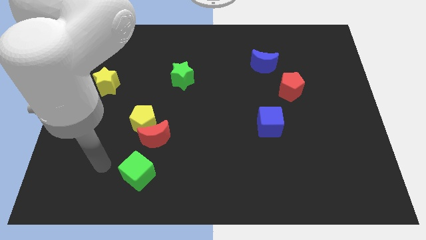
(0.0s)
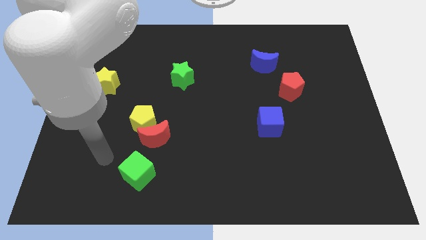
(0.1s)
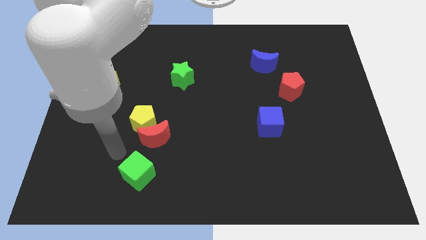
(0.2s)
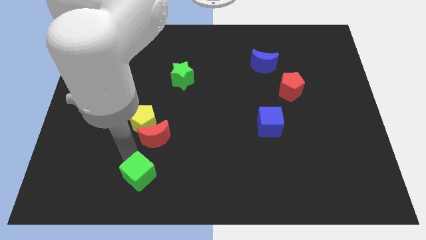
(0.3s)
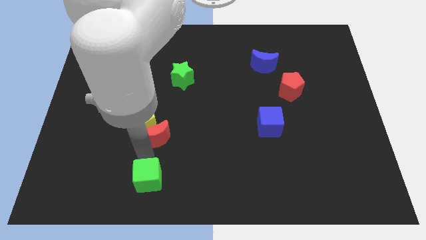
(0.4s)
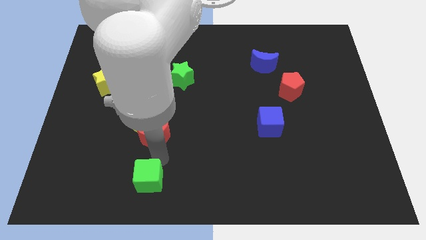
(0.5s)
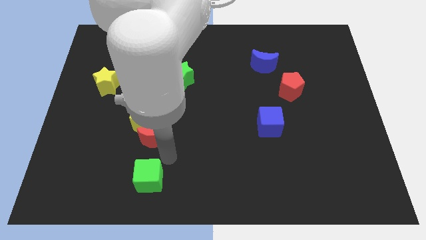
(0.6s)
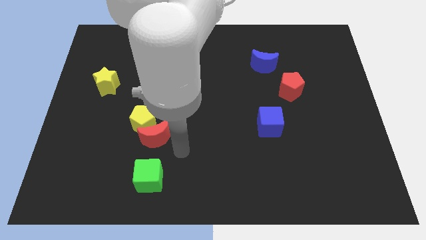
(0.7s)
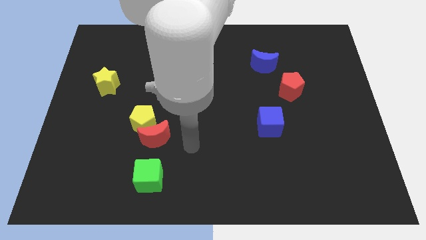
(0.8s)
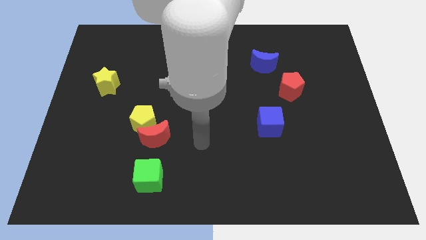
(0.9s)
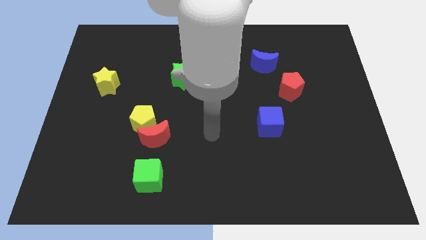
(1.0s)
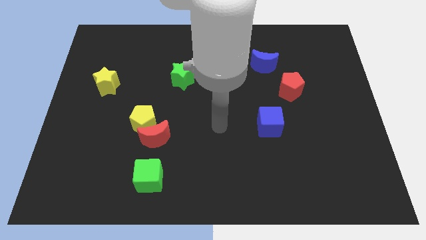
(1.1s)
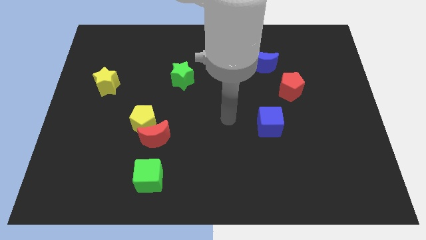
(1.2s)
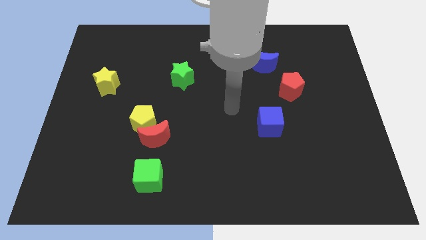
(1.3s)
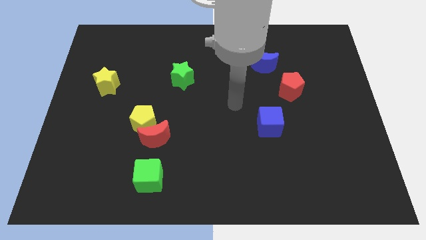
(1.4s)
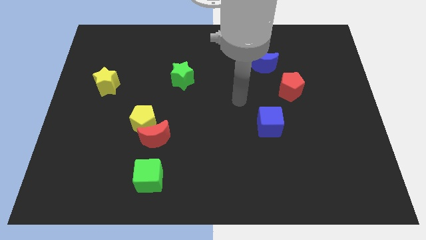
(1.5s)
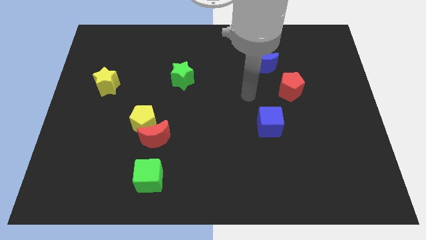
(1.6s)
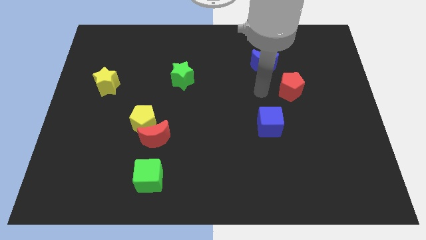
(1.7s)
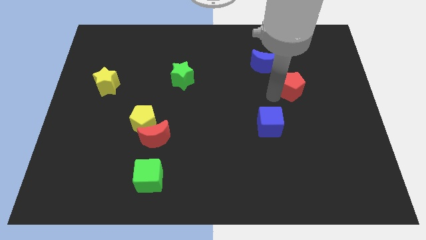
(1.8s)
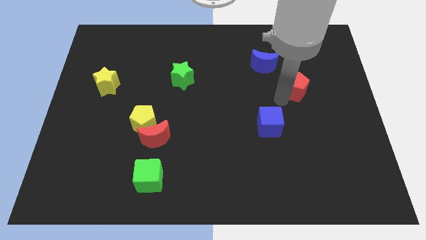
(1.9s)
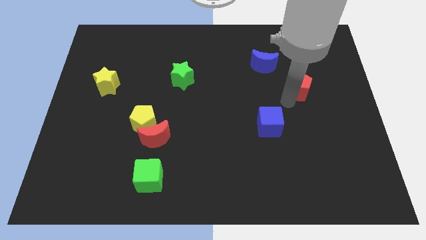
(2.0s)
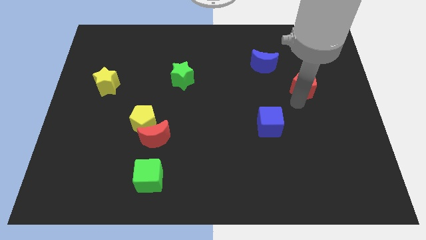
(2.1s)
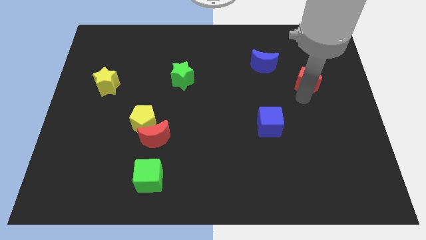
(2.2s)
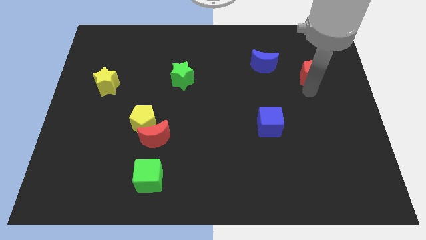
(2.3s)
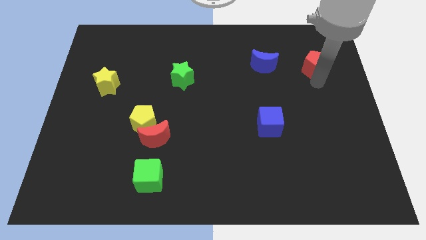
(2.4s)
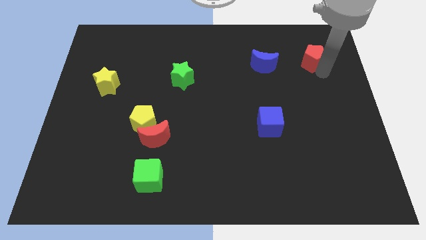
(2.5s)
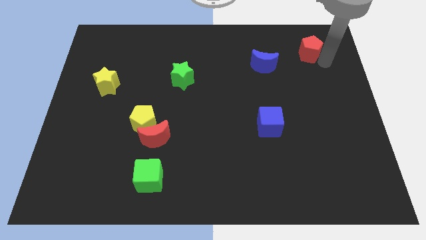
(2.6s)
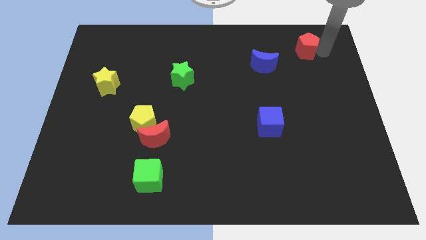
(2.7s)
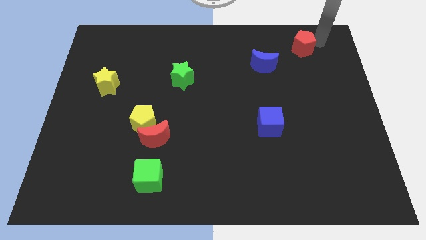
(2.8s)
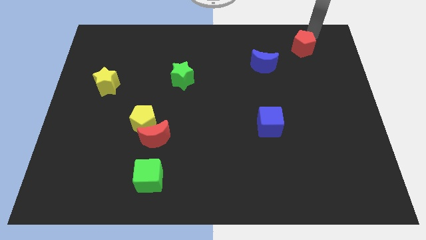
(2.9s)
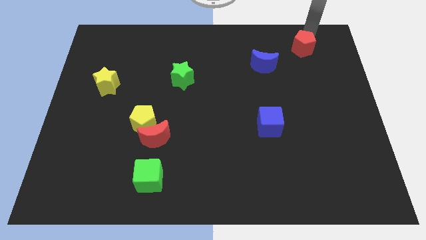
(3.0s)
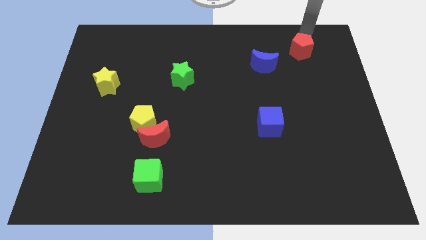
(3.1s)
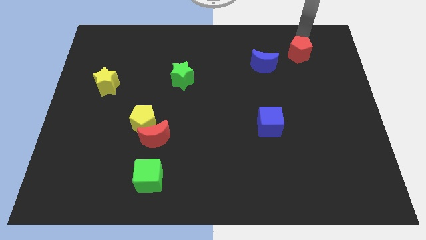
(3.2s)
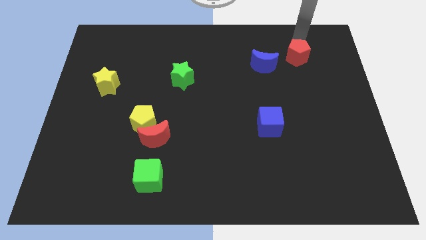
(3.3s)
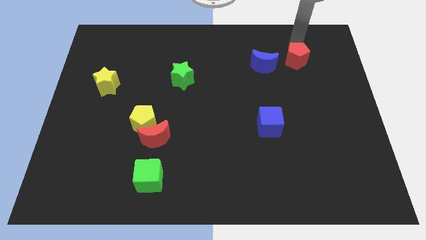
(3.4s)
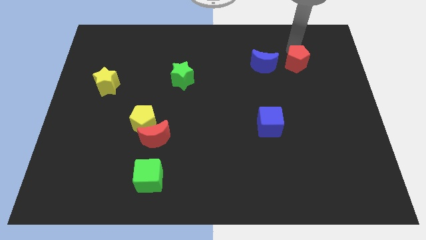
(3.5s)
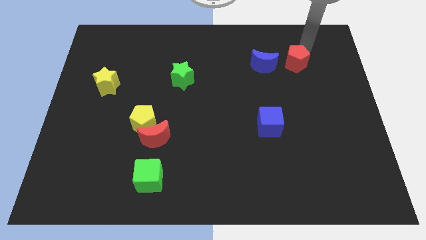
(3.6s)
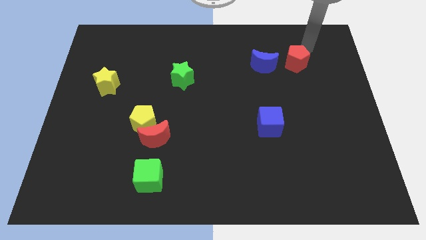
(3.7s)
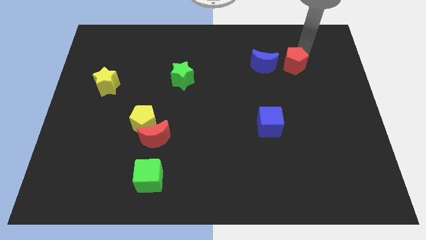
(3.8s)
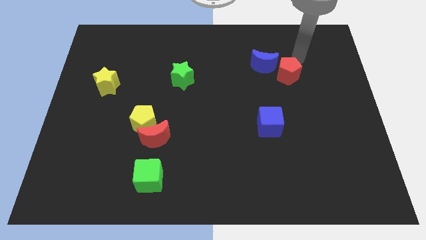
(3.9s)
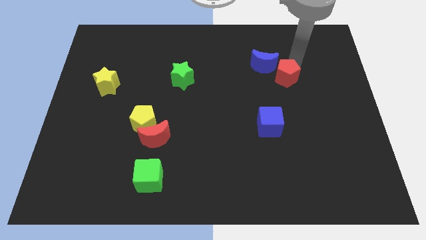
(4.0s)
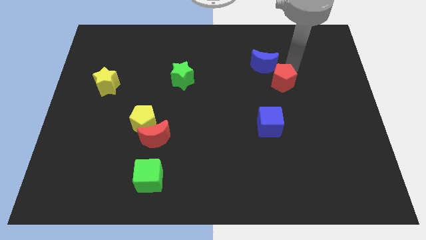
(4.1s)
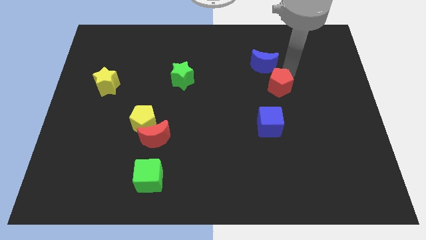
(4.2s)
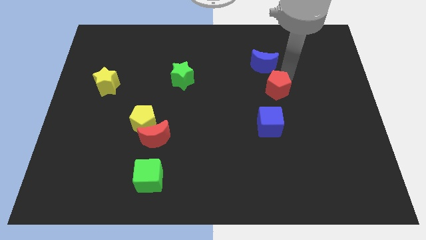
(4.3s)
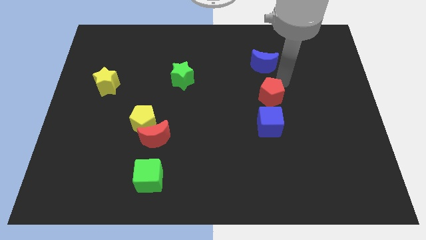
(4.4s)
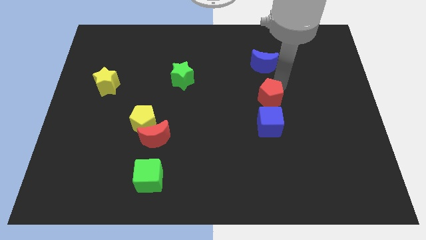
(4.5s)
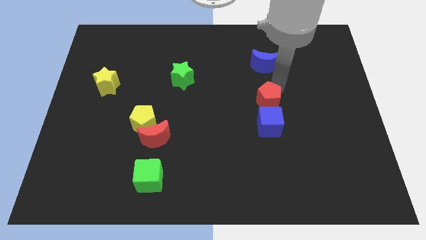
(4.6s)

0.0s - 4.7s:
move the red pentagon down and then left a bit

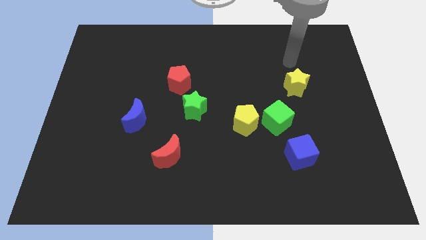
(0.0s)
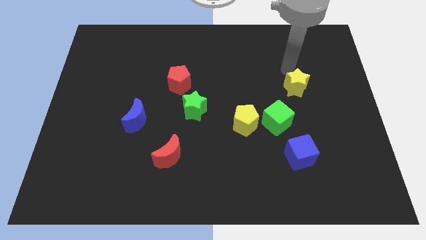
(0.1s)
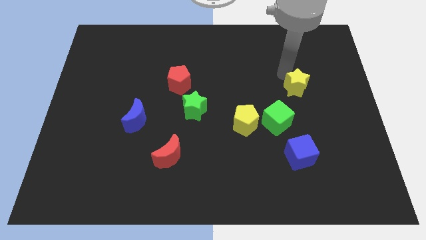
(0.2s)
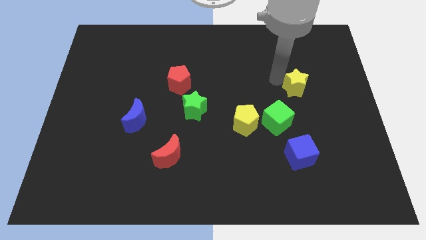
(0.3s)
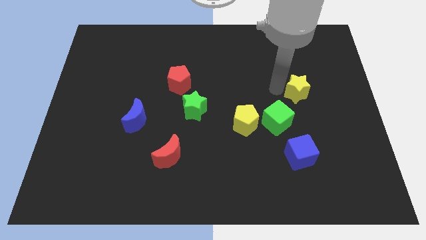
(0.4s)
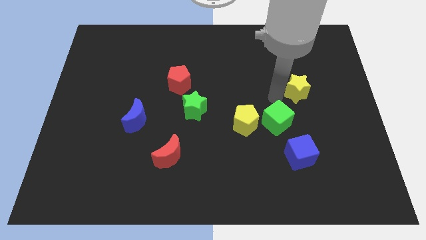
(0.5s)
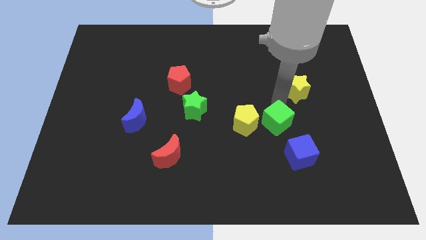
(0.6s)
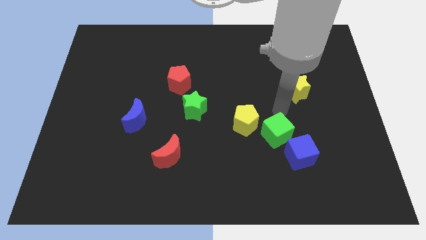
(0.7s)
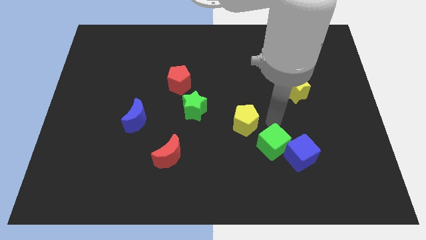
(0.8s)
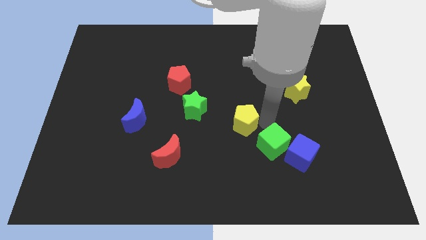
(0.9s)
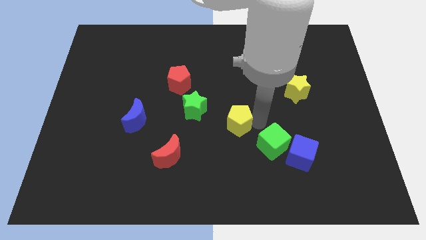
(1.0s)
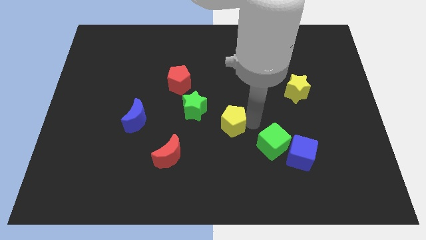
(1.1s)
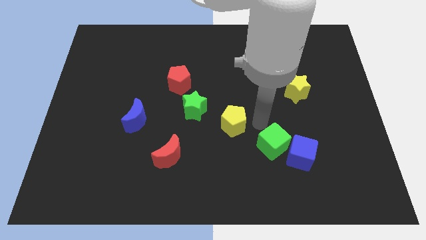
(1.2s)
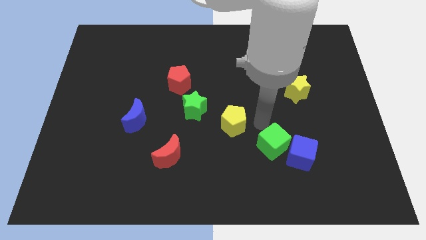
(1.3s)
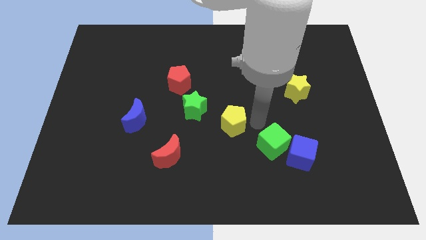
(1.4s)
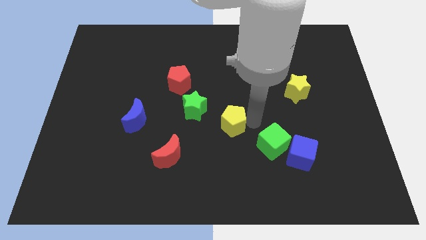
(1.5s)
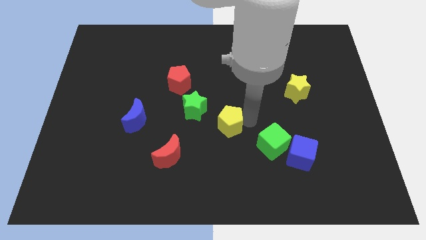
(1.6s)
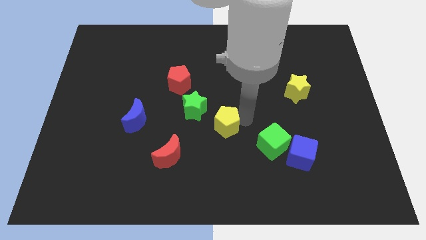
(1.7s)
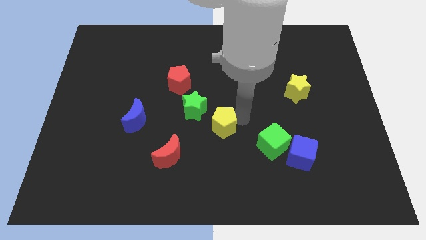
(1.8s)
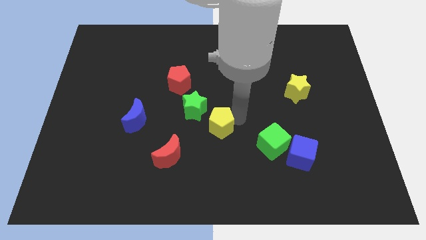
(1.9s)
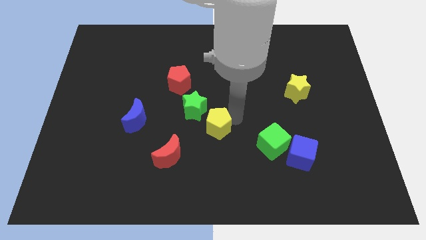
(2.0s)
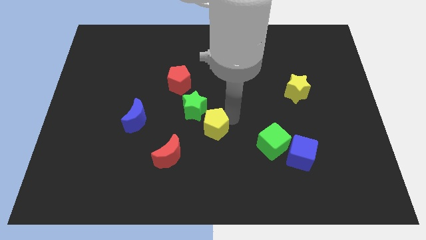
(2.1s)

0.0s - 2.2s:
slightly move the yellow pentagon left

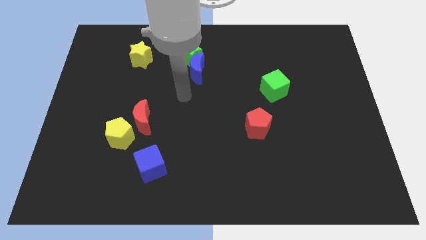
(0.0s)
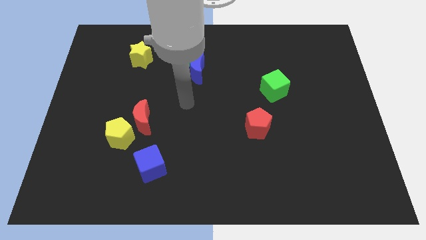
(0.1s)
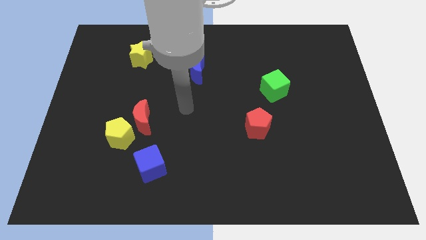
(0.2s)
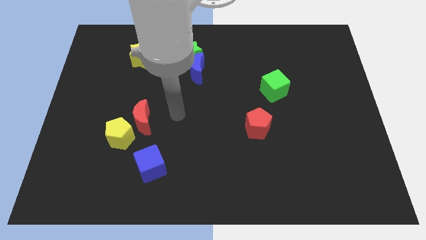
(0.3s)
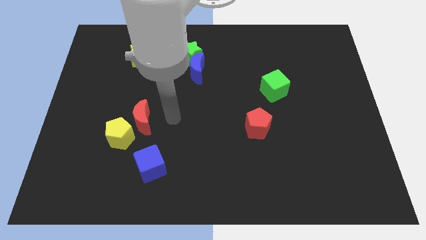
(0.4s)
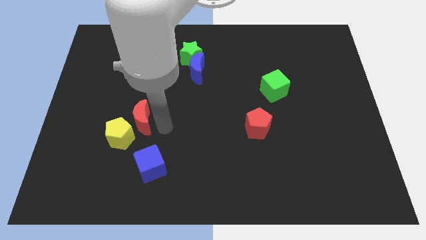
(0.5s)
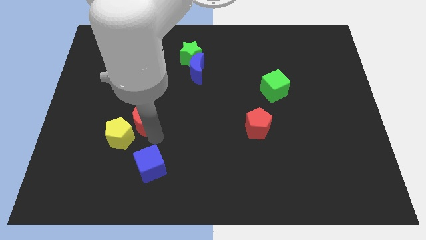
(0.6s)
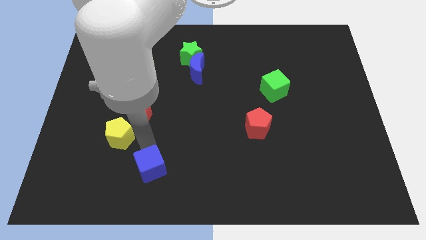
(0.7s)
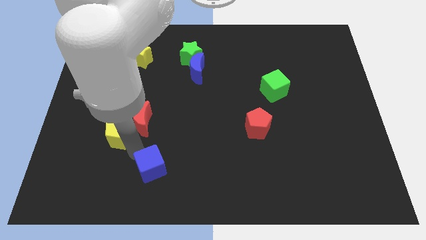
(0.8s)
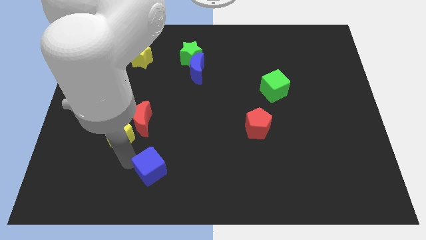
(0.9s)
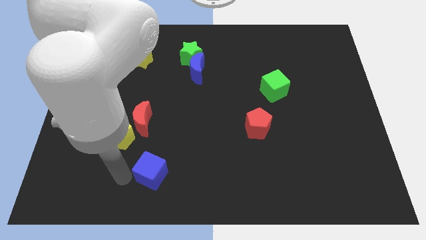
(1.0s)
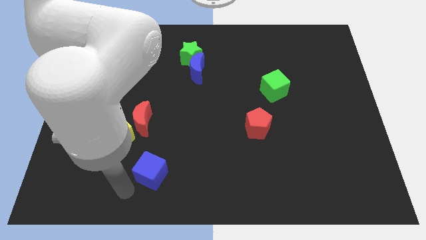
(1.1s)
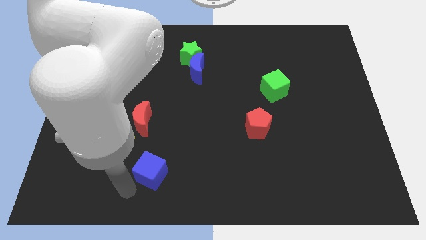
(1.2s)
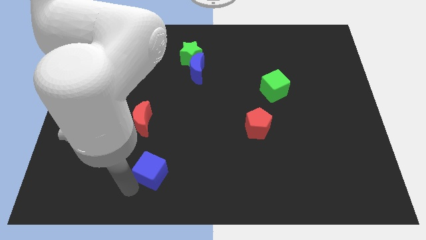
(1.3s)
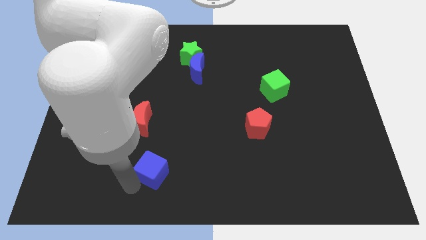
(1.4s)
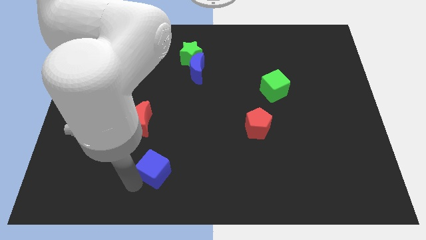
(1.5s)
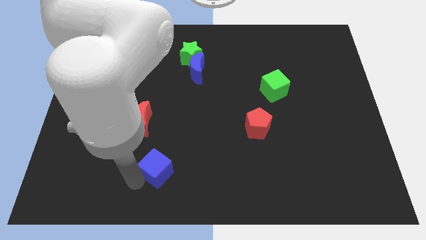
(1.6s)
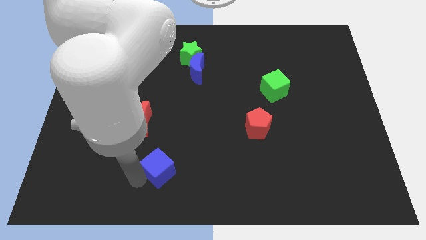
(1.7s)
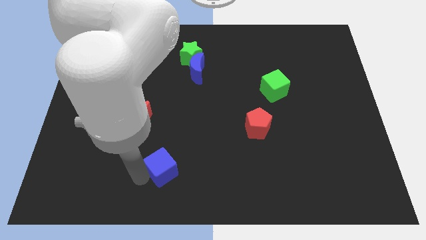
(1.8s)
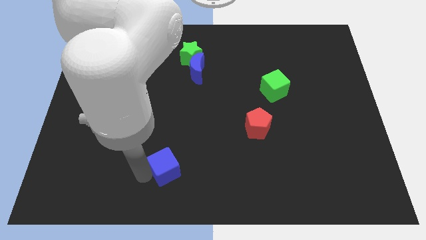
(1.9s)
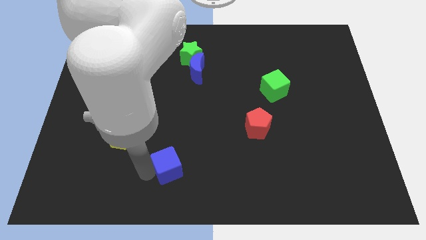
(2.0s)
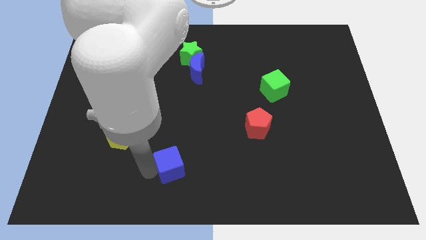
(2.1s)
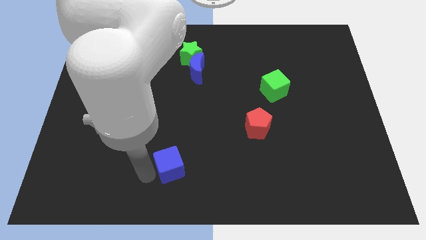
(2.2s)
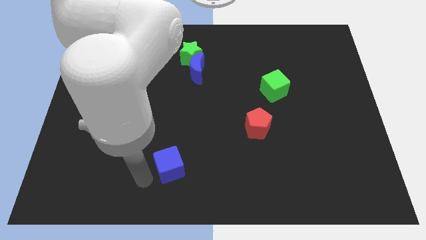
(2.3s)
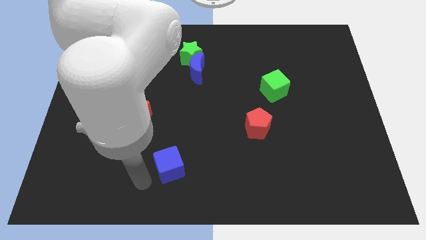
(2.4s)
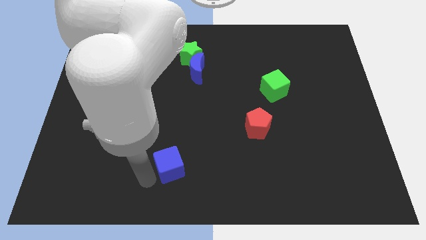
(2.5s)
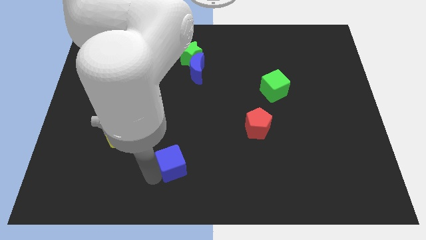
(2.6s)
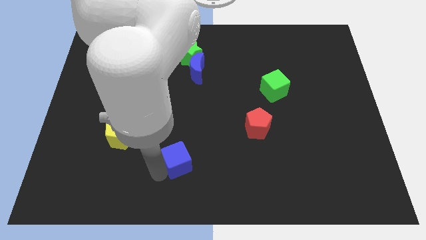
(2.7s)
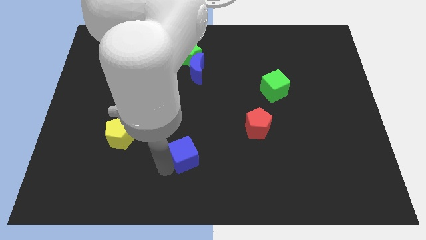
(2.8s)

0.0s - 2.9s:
slide the blue cube right a bit
